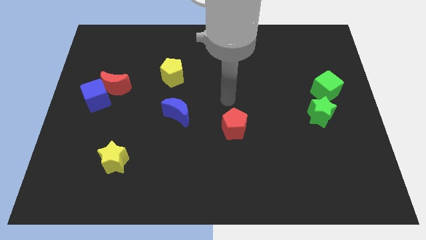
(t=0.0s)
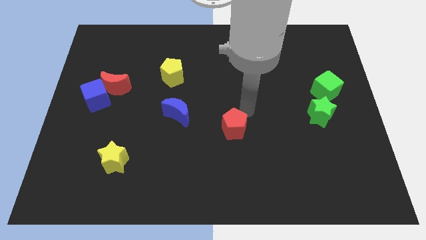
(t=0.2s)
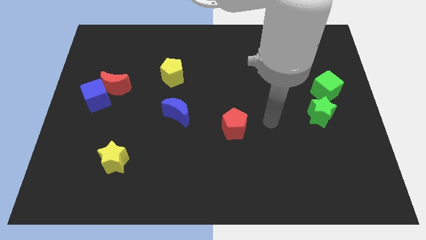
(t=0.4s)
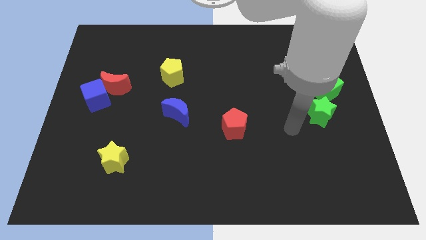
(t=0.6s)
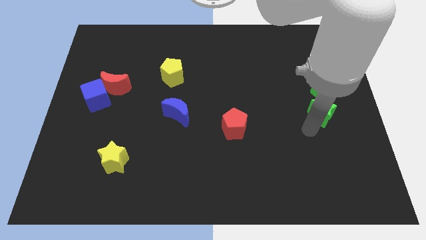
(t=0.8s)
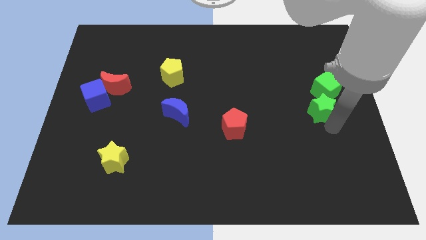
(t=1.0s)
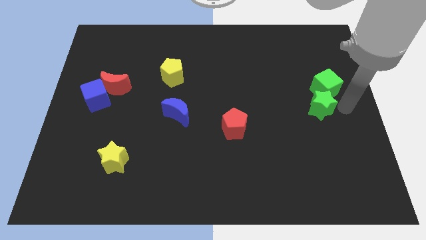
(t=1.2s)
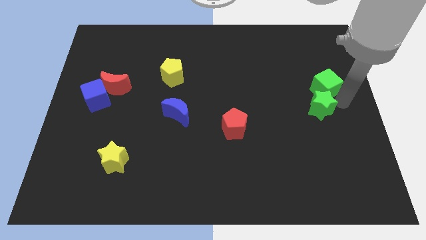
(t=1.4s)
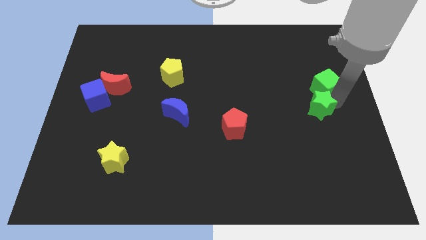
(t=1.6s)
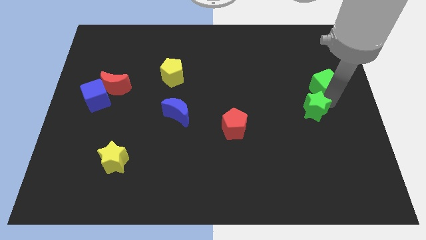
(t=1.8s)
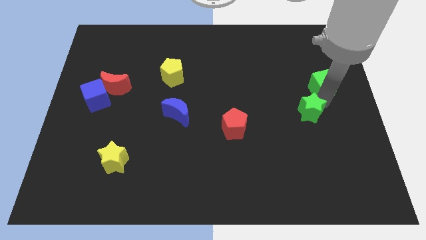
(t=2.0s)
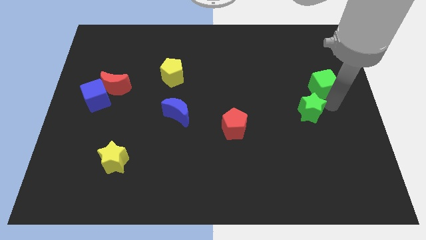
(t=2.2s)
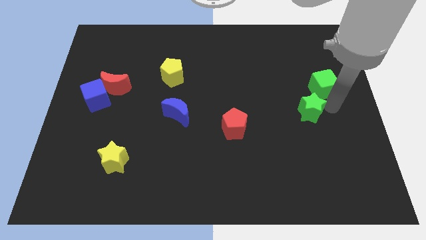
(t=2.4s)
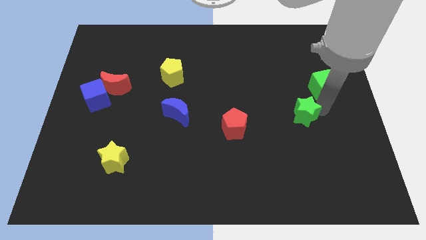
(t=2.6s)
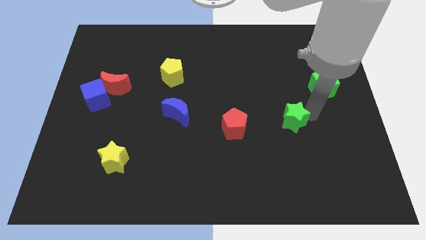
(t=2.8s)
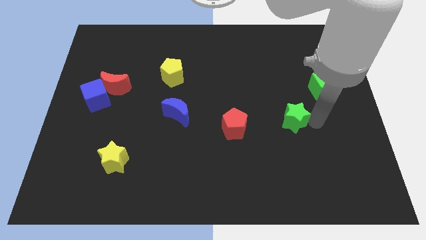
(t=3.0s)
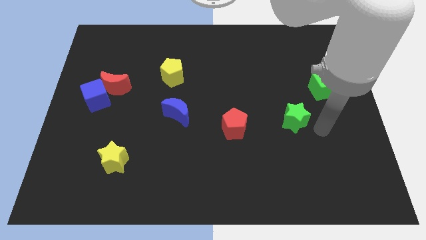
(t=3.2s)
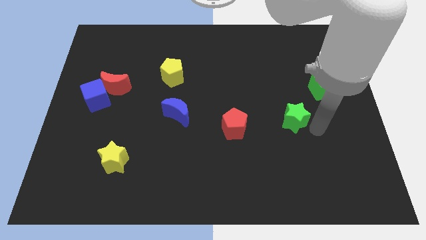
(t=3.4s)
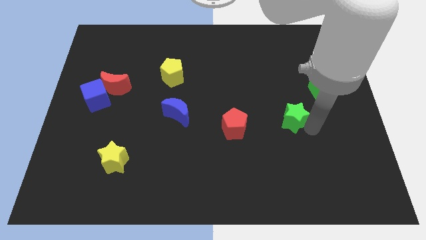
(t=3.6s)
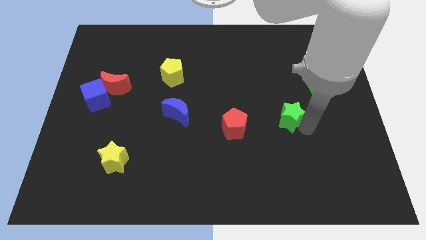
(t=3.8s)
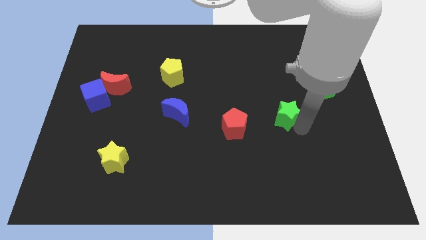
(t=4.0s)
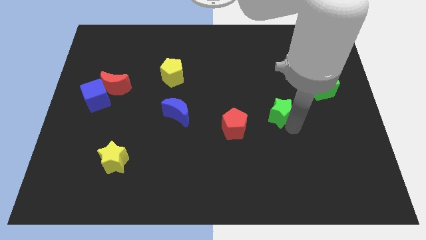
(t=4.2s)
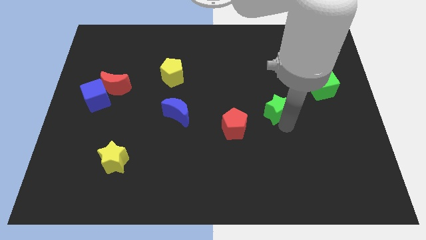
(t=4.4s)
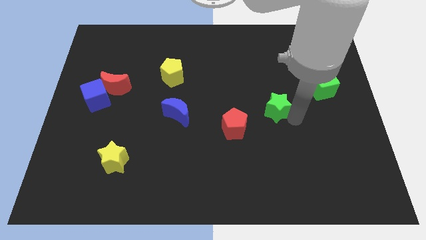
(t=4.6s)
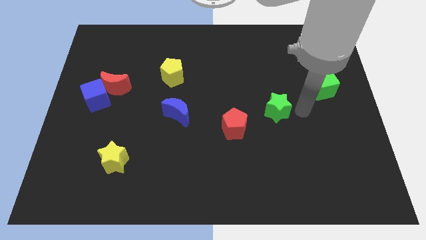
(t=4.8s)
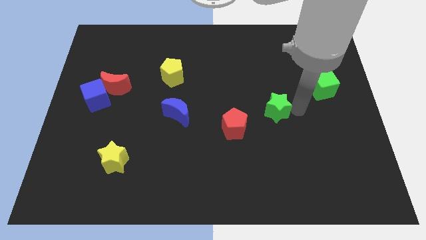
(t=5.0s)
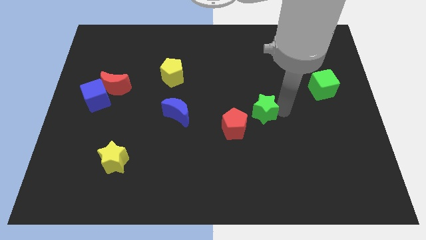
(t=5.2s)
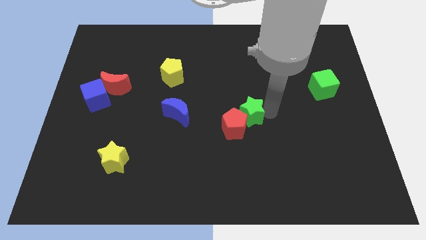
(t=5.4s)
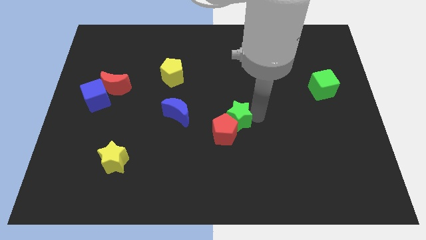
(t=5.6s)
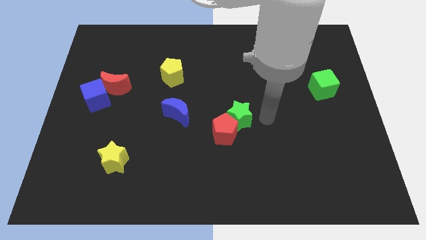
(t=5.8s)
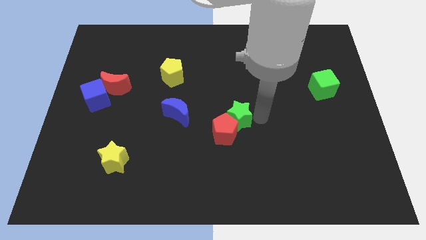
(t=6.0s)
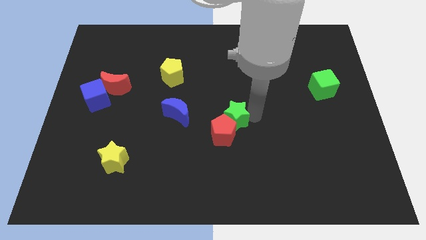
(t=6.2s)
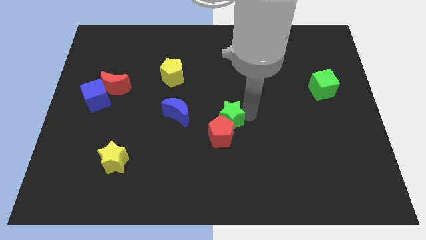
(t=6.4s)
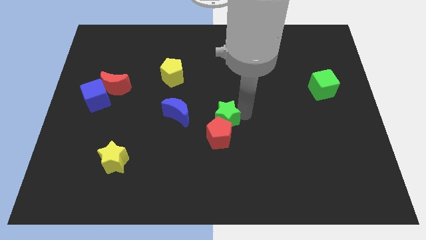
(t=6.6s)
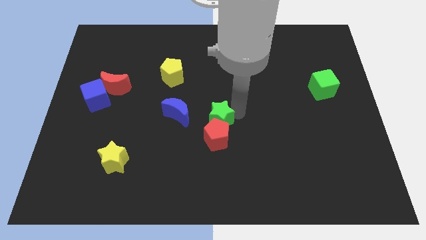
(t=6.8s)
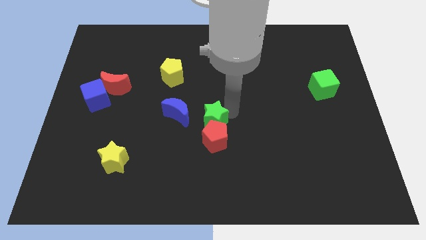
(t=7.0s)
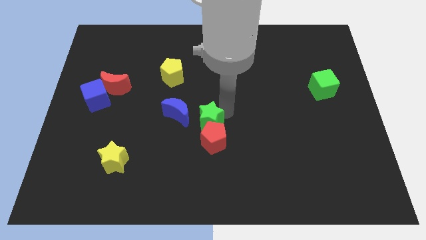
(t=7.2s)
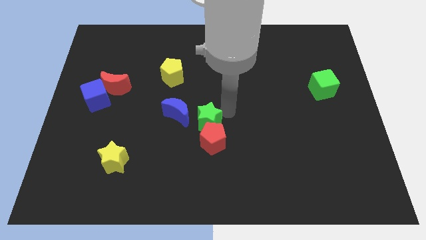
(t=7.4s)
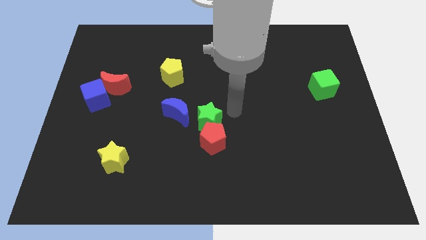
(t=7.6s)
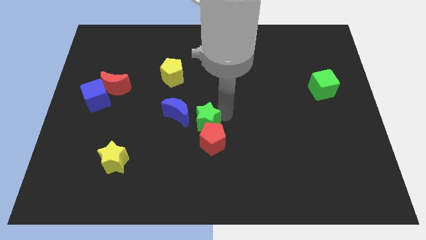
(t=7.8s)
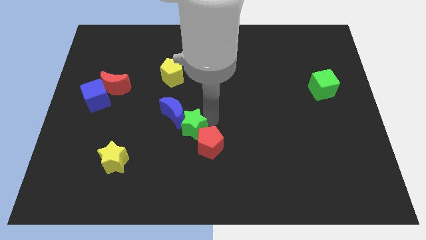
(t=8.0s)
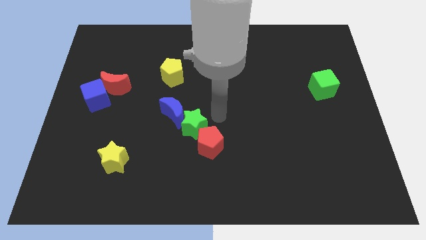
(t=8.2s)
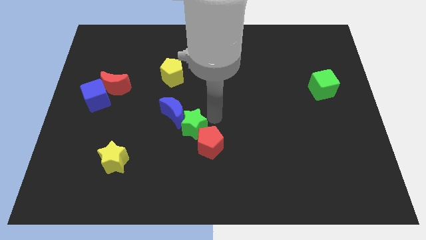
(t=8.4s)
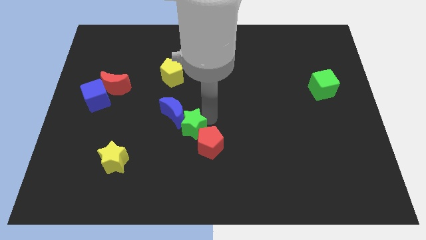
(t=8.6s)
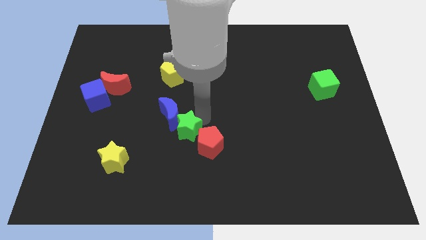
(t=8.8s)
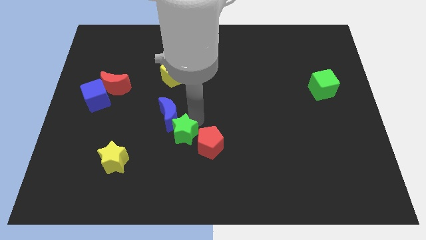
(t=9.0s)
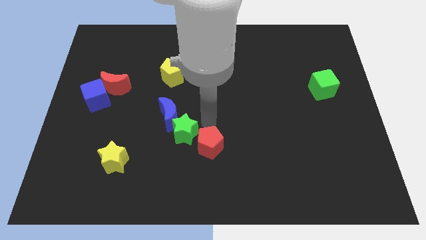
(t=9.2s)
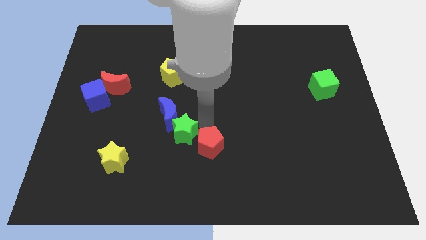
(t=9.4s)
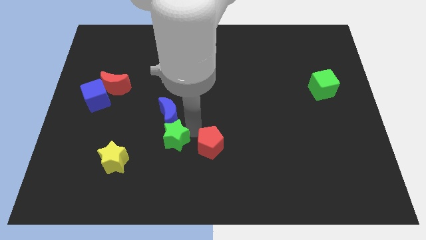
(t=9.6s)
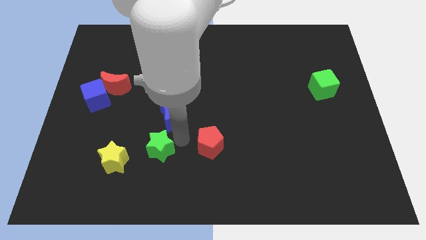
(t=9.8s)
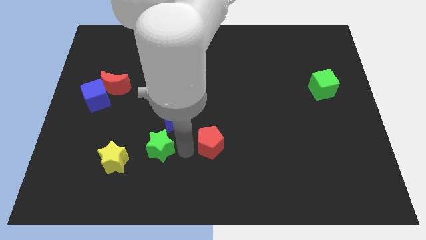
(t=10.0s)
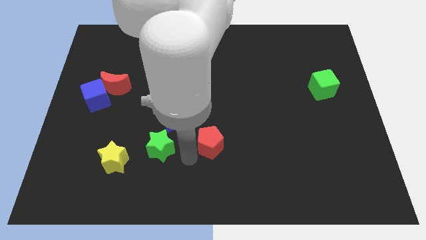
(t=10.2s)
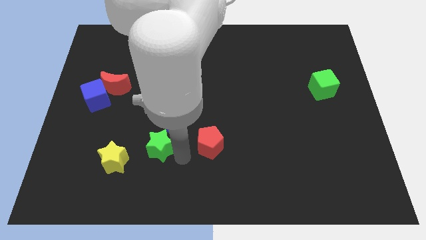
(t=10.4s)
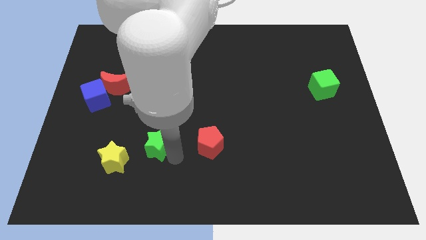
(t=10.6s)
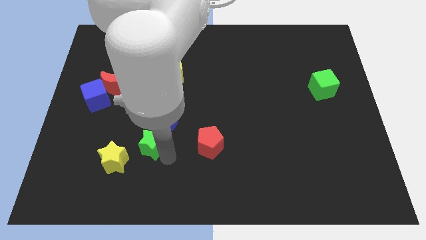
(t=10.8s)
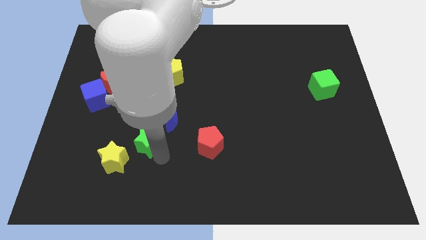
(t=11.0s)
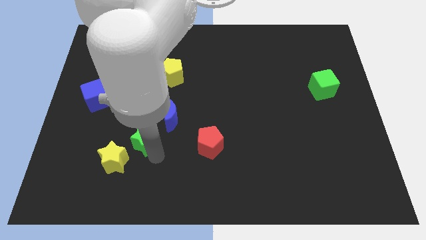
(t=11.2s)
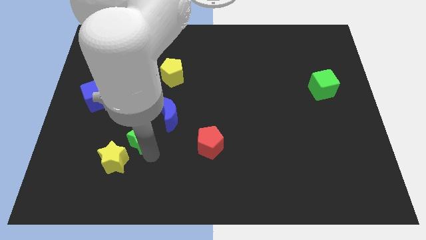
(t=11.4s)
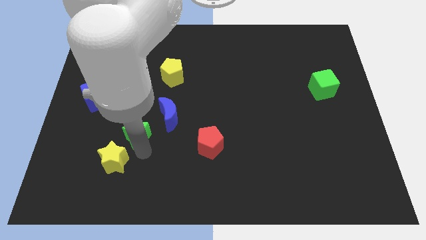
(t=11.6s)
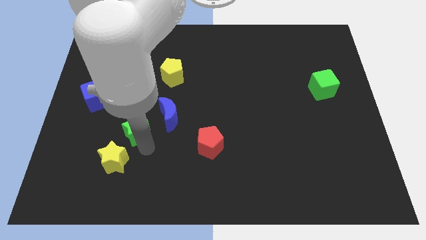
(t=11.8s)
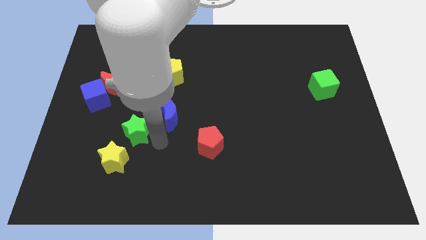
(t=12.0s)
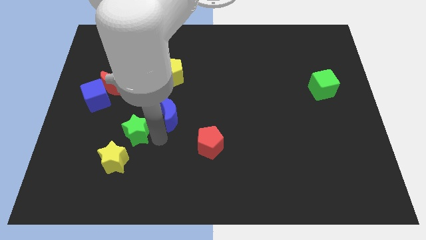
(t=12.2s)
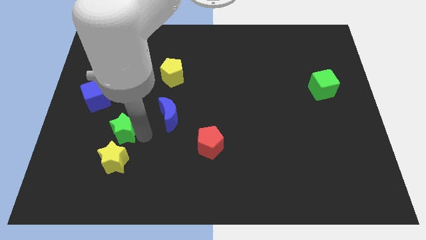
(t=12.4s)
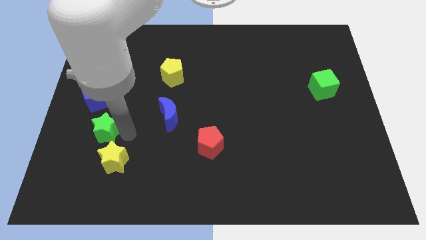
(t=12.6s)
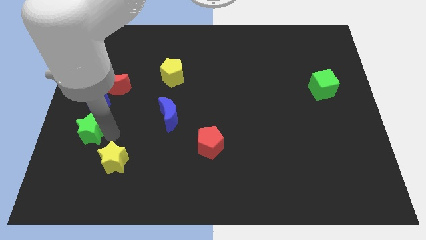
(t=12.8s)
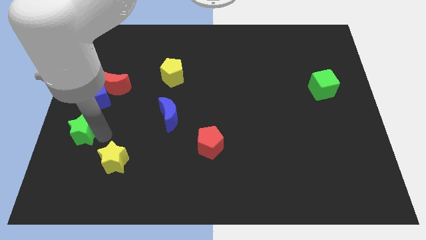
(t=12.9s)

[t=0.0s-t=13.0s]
push the green star to the center left
